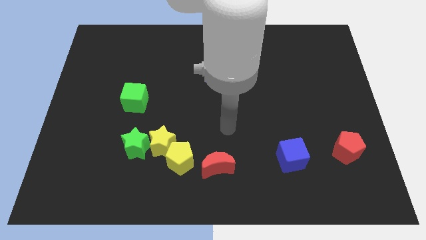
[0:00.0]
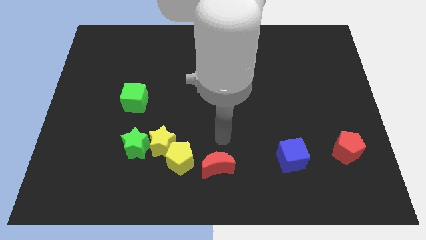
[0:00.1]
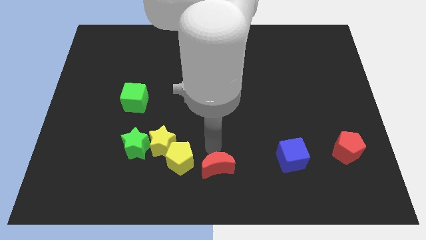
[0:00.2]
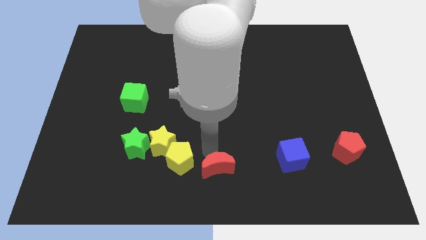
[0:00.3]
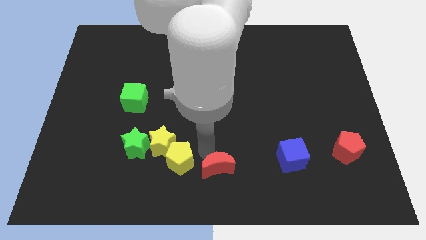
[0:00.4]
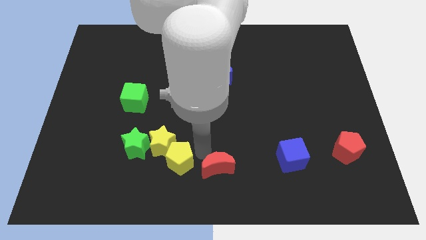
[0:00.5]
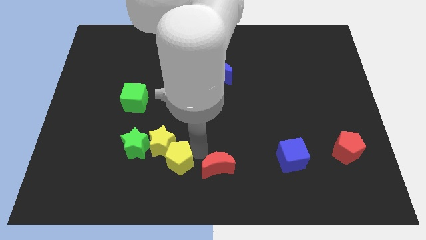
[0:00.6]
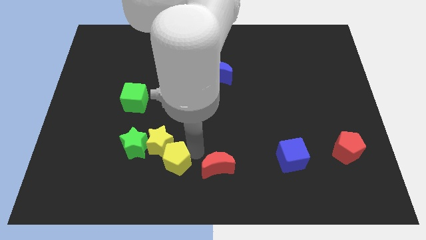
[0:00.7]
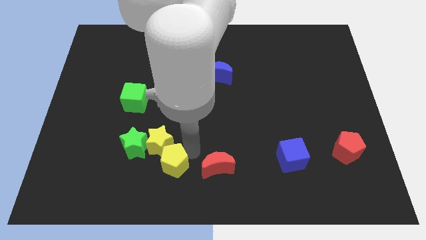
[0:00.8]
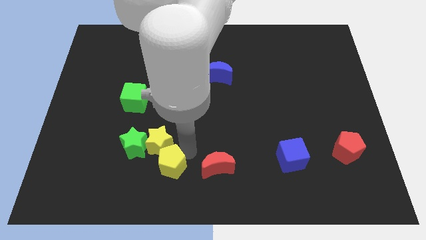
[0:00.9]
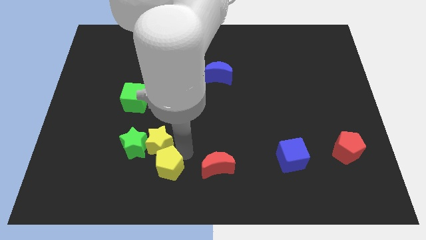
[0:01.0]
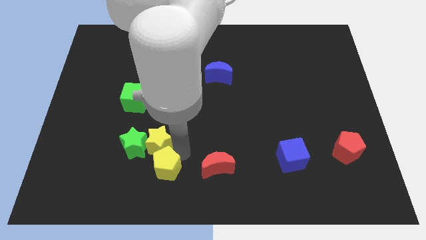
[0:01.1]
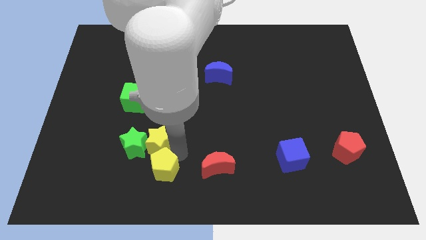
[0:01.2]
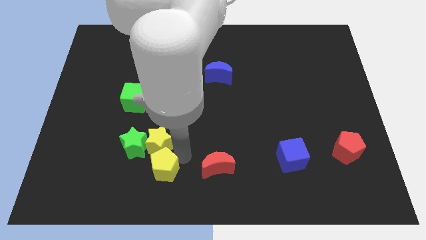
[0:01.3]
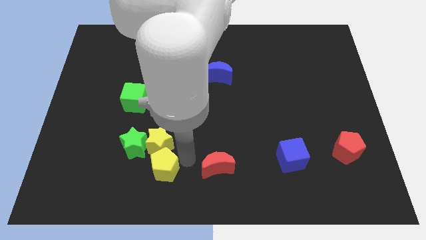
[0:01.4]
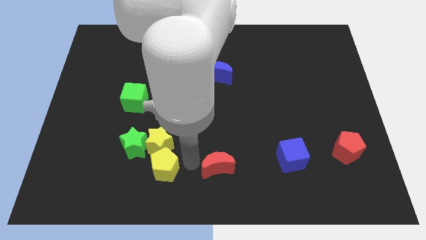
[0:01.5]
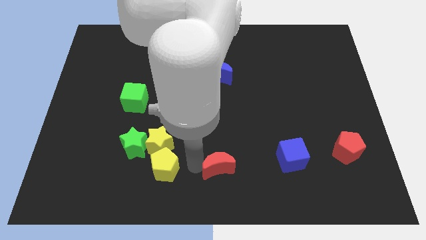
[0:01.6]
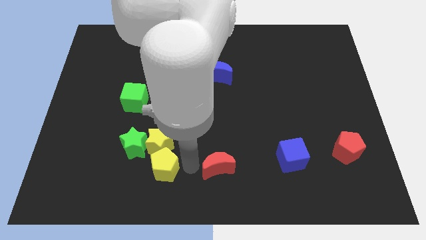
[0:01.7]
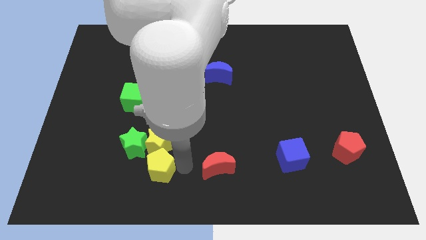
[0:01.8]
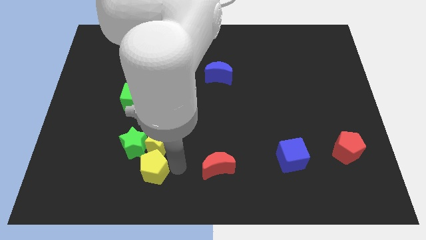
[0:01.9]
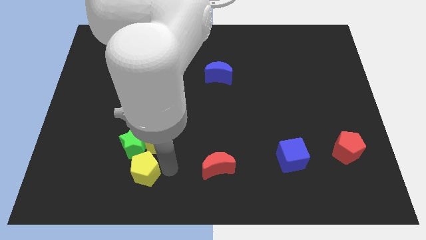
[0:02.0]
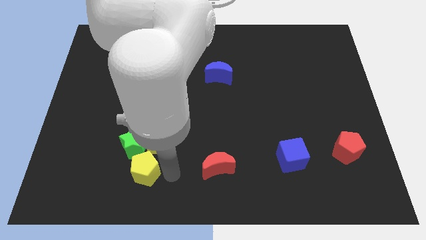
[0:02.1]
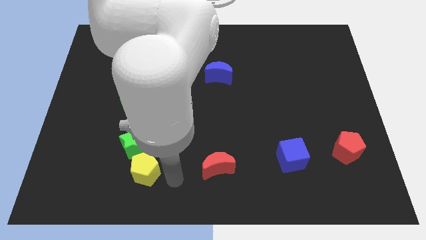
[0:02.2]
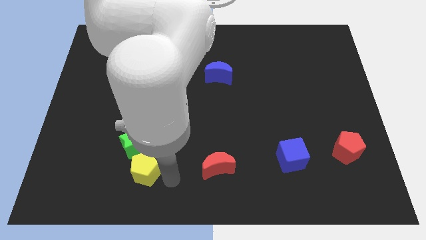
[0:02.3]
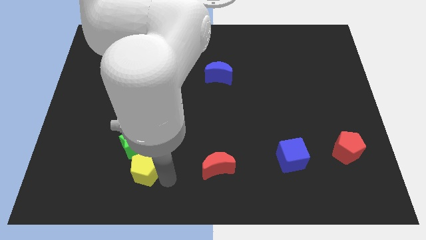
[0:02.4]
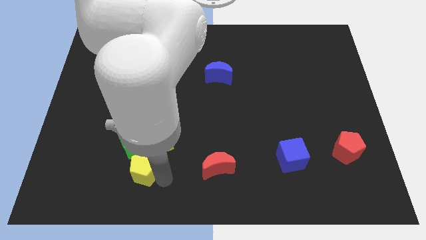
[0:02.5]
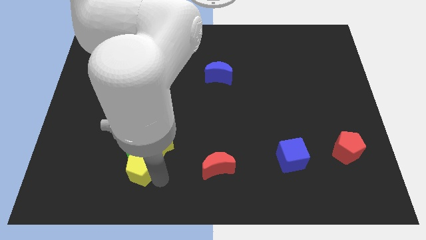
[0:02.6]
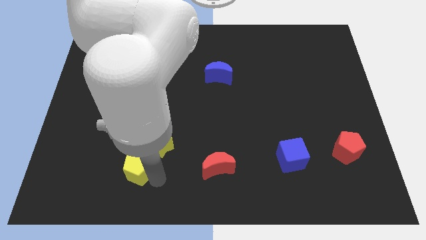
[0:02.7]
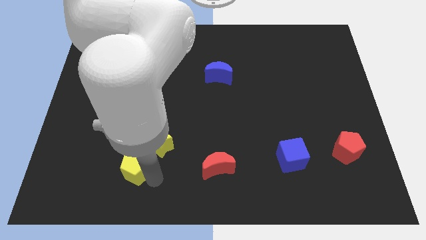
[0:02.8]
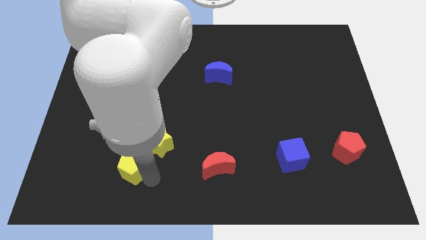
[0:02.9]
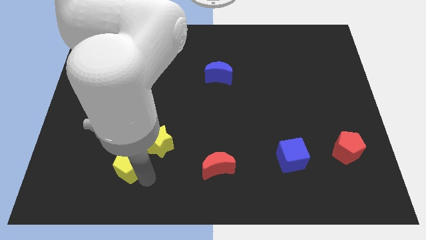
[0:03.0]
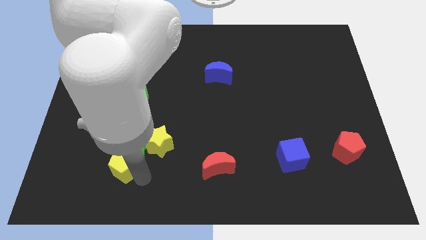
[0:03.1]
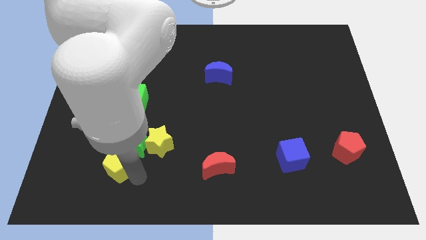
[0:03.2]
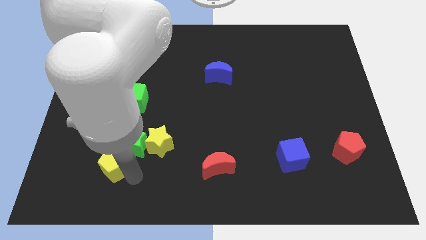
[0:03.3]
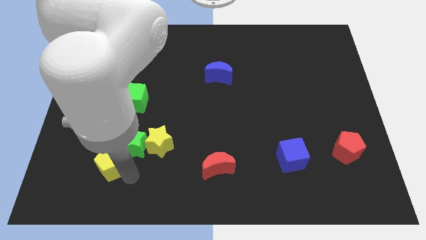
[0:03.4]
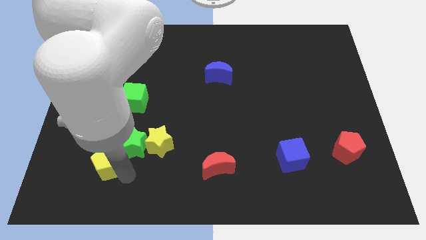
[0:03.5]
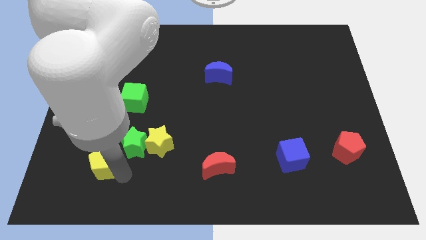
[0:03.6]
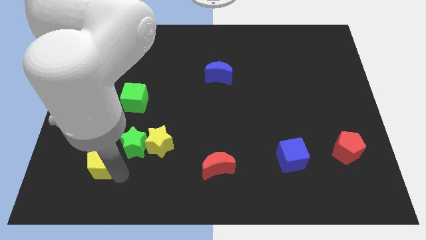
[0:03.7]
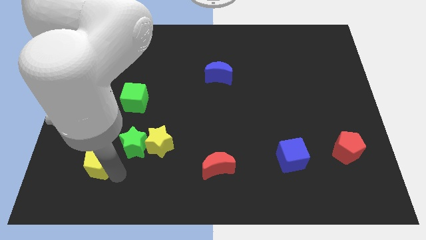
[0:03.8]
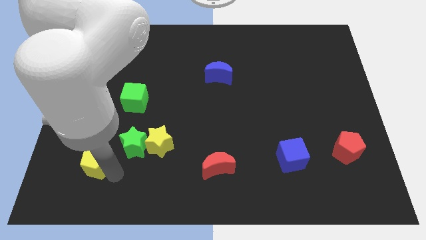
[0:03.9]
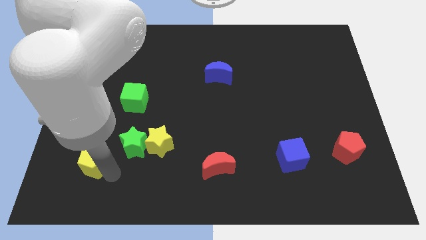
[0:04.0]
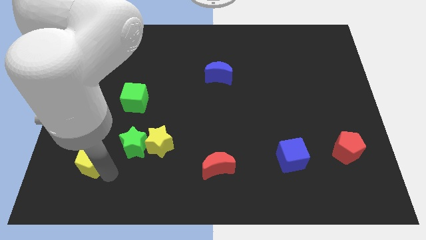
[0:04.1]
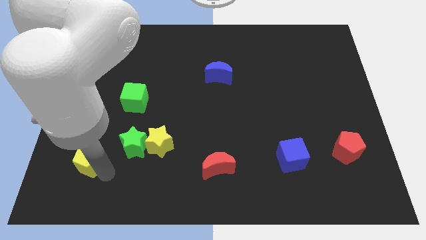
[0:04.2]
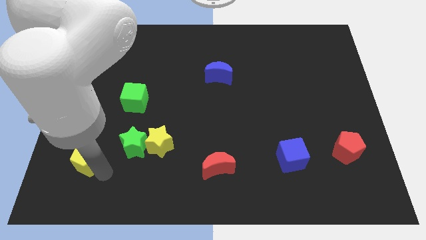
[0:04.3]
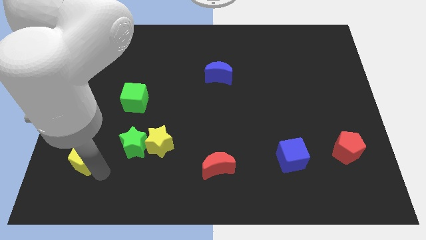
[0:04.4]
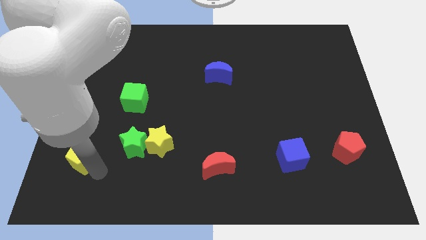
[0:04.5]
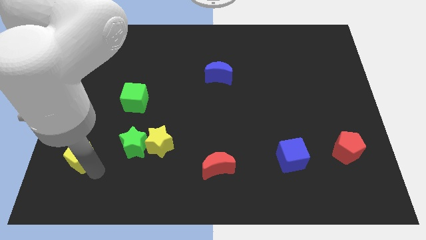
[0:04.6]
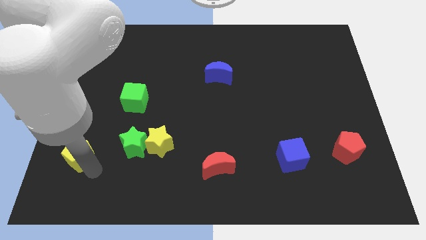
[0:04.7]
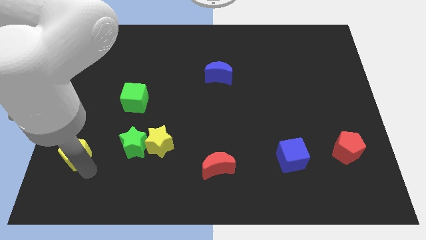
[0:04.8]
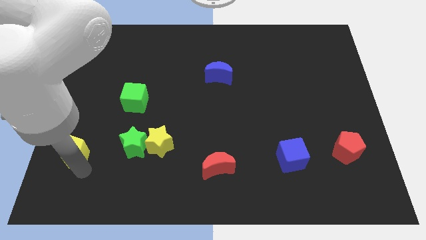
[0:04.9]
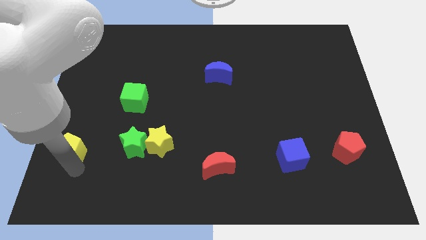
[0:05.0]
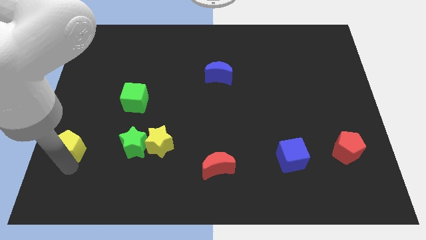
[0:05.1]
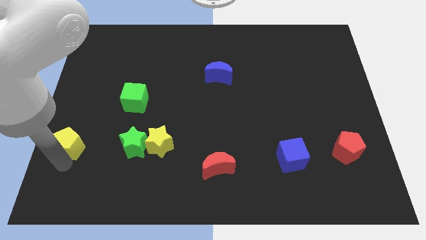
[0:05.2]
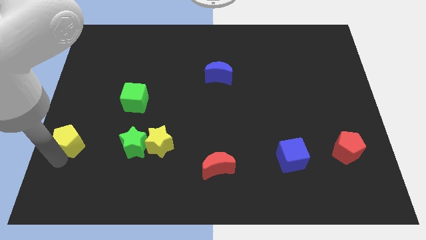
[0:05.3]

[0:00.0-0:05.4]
push the yellow pentagon to the left side of the board

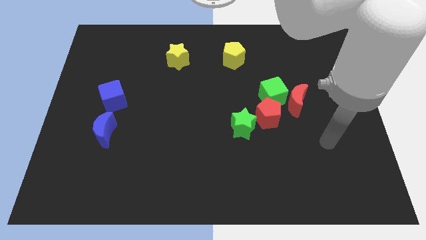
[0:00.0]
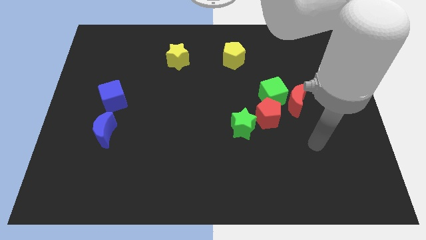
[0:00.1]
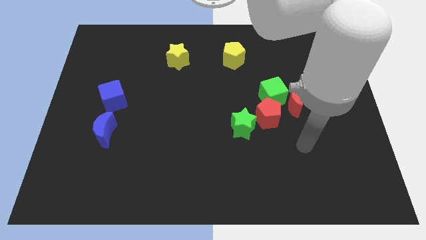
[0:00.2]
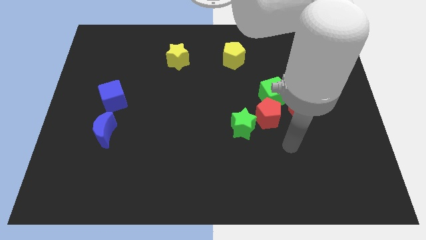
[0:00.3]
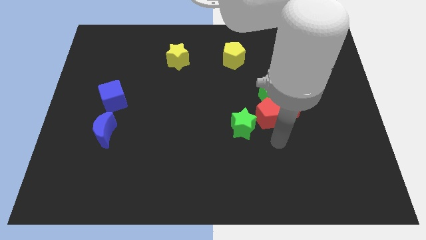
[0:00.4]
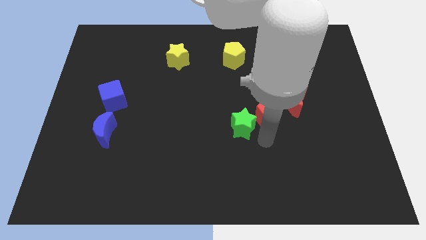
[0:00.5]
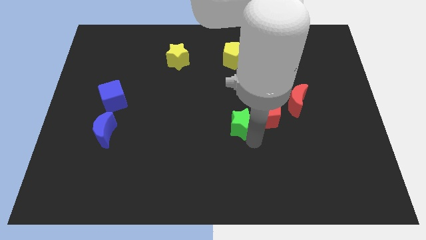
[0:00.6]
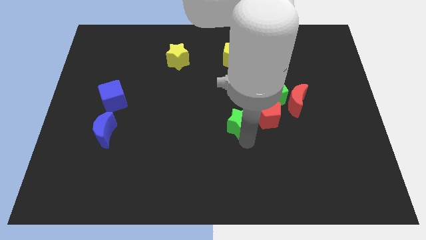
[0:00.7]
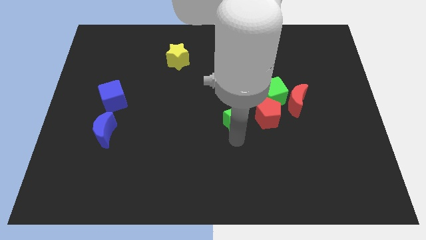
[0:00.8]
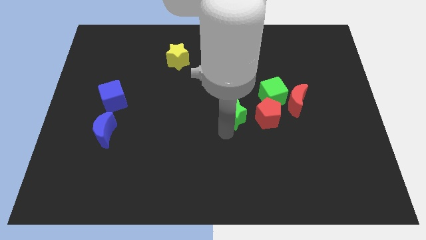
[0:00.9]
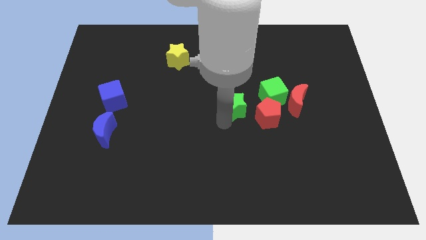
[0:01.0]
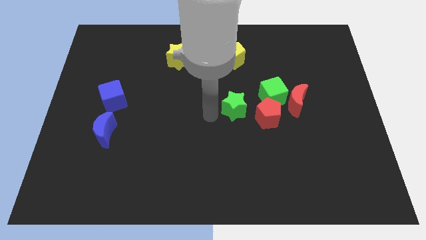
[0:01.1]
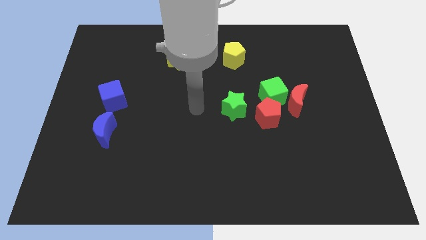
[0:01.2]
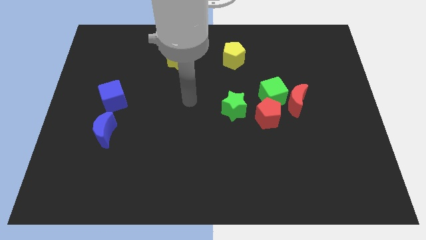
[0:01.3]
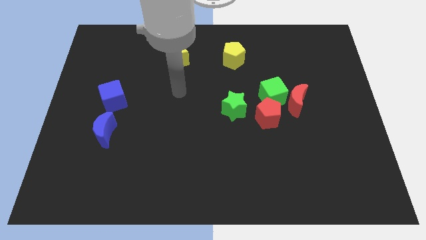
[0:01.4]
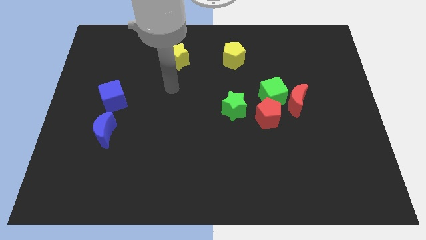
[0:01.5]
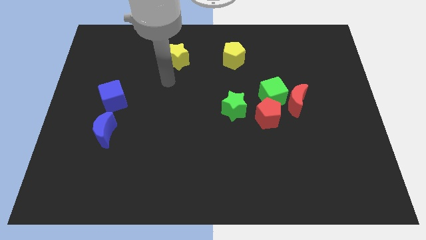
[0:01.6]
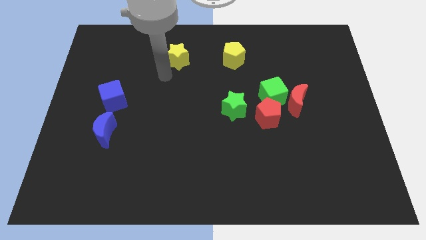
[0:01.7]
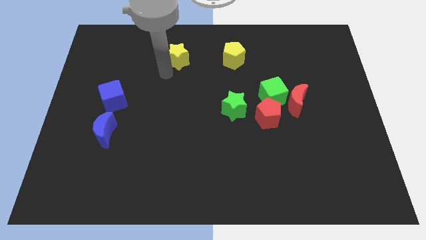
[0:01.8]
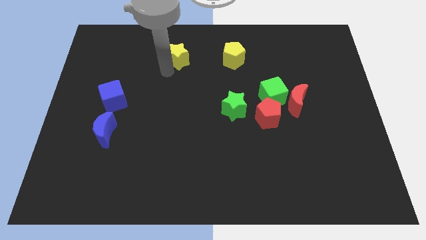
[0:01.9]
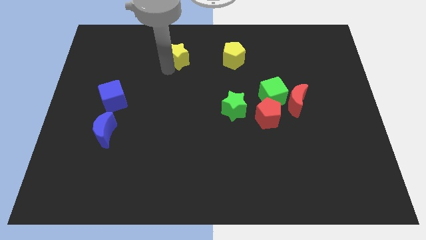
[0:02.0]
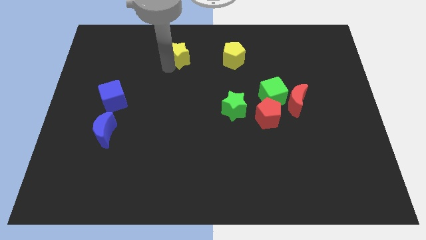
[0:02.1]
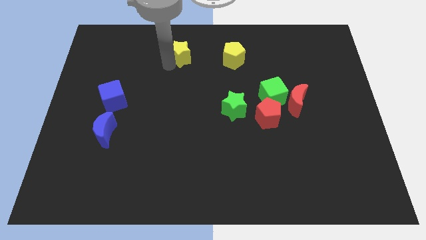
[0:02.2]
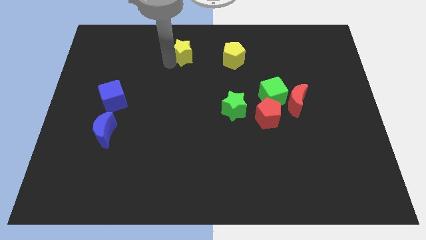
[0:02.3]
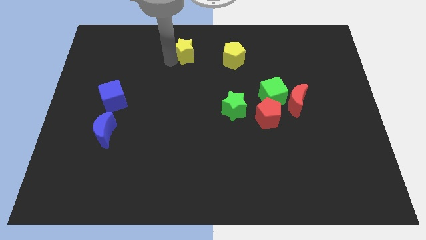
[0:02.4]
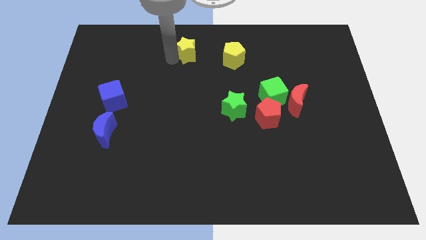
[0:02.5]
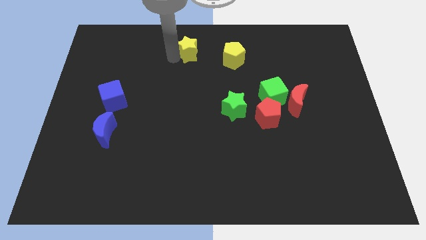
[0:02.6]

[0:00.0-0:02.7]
slide the yellow star to the top
